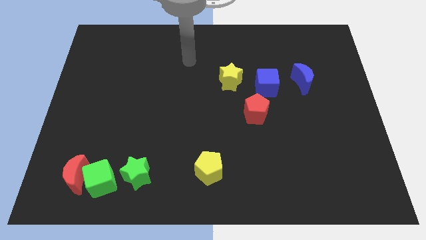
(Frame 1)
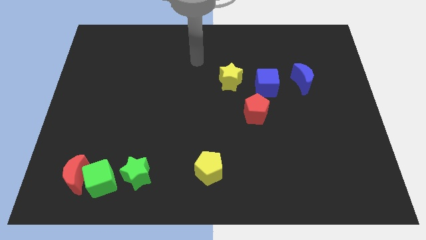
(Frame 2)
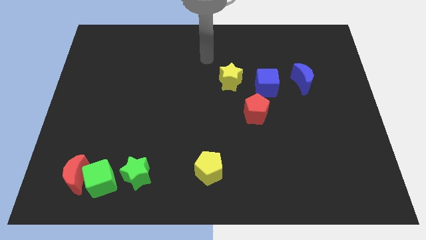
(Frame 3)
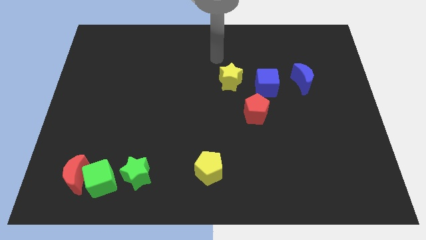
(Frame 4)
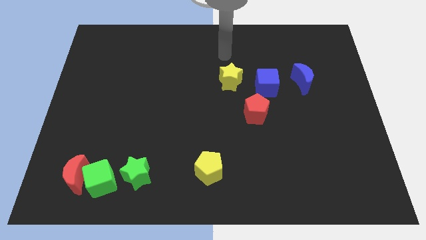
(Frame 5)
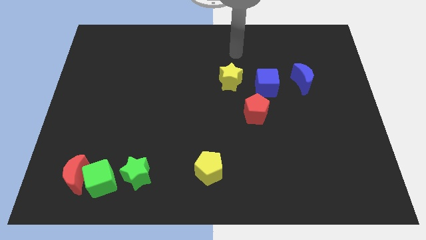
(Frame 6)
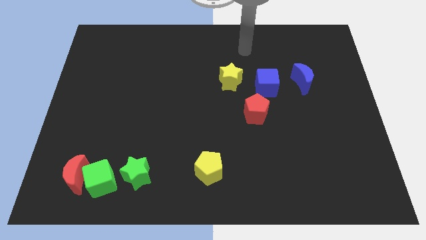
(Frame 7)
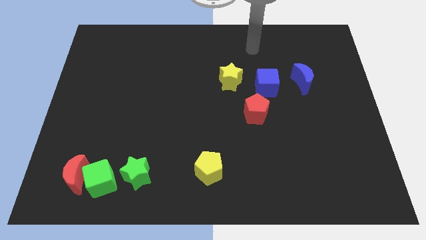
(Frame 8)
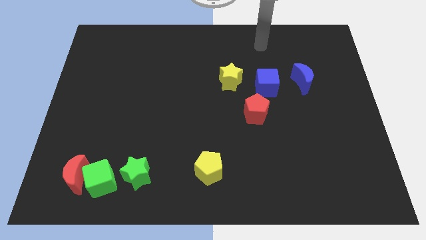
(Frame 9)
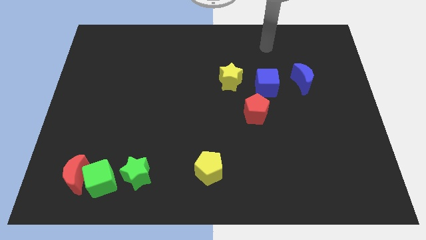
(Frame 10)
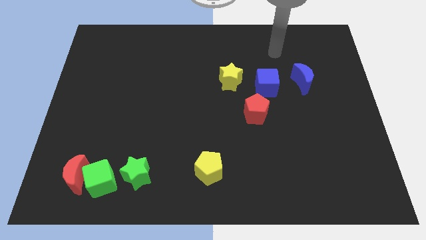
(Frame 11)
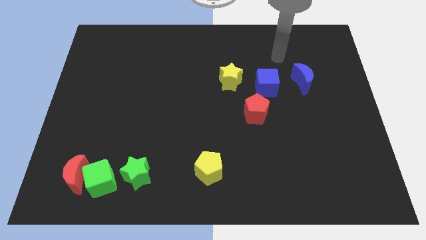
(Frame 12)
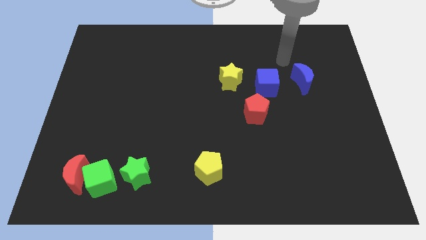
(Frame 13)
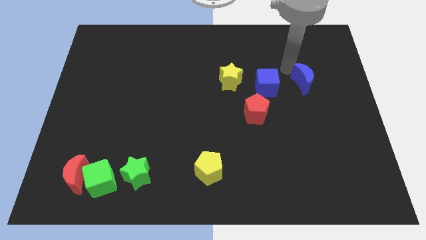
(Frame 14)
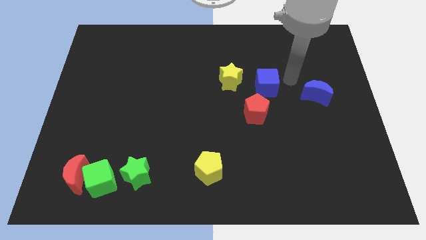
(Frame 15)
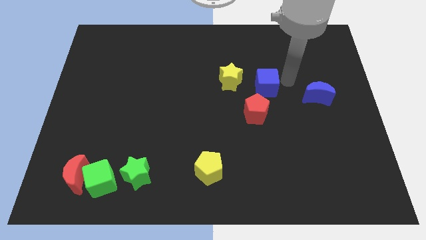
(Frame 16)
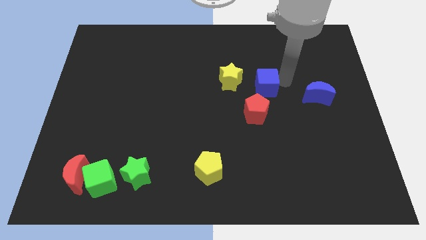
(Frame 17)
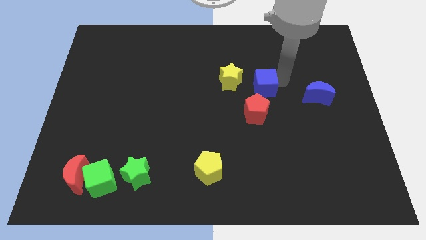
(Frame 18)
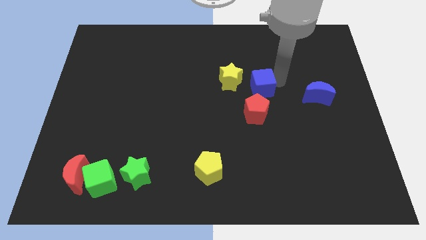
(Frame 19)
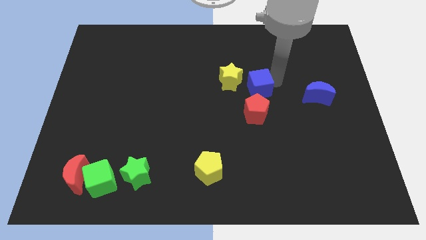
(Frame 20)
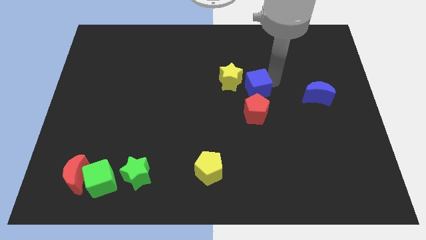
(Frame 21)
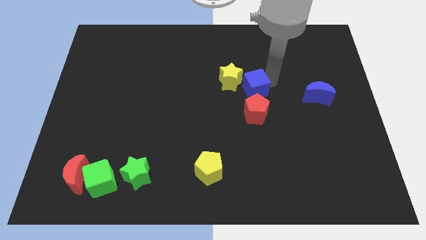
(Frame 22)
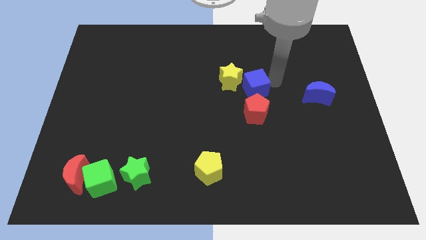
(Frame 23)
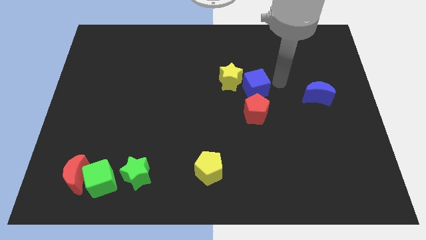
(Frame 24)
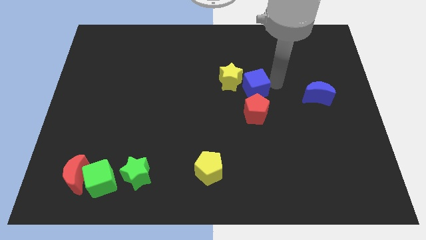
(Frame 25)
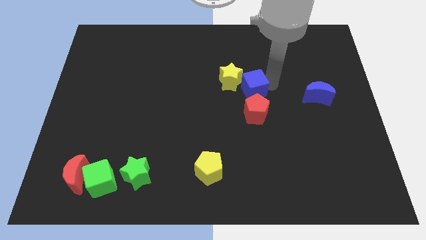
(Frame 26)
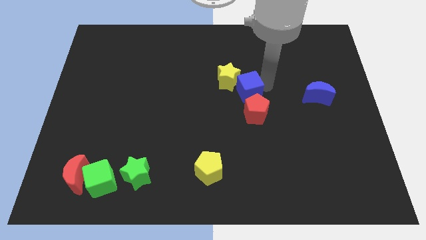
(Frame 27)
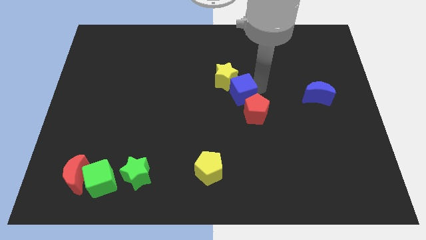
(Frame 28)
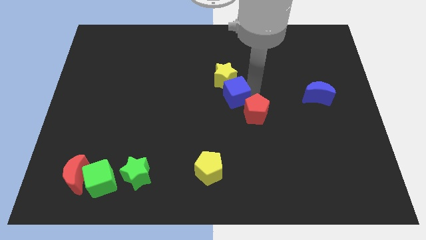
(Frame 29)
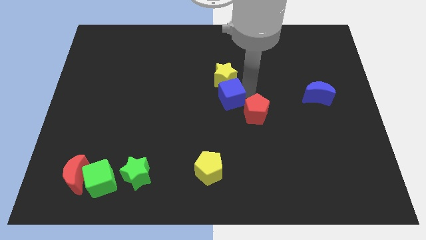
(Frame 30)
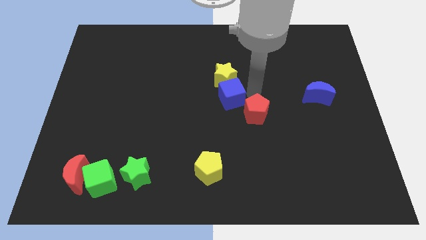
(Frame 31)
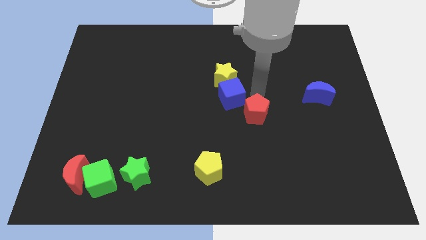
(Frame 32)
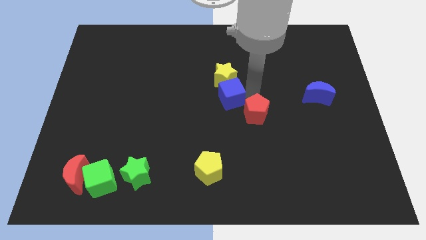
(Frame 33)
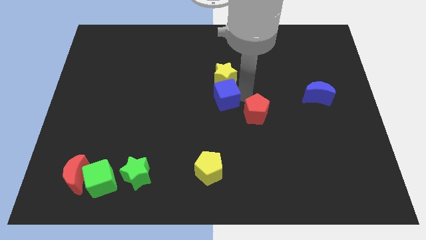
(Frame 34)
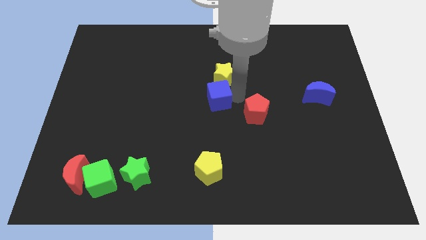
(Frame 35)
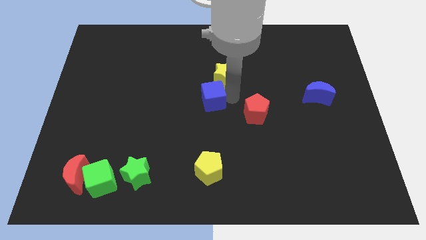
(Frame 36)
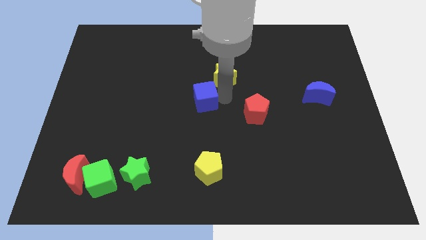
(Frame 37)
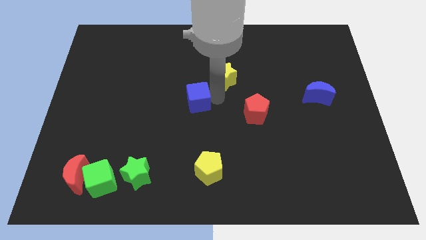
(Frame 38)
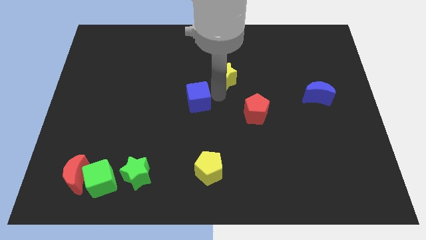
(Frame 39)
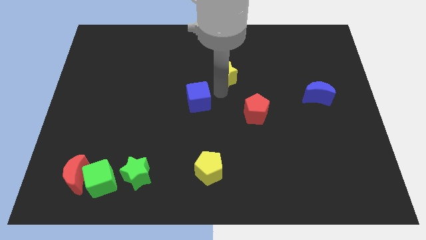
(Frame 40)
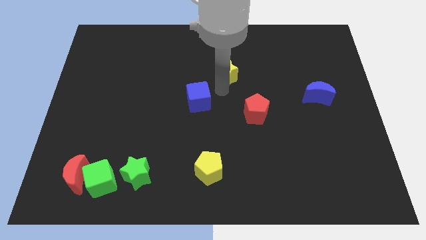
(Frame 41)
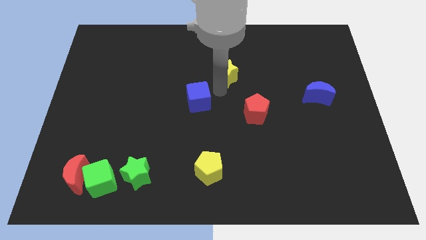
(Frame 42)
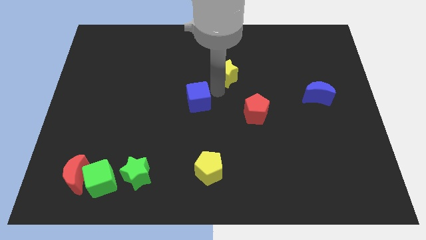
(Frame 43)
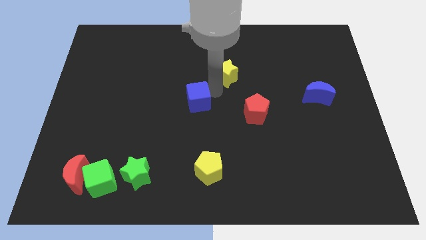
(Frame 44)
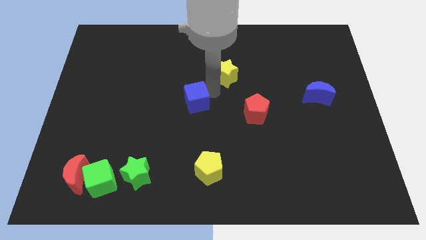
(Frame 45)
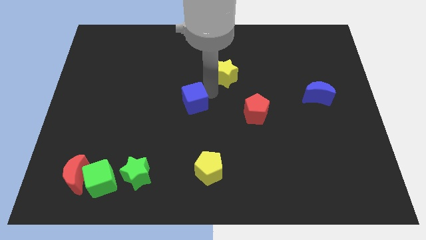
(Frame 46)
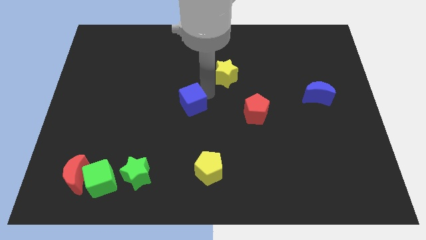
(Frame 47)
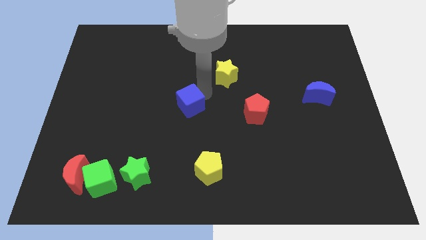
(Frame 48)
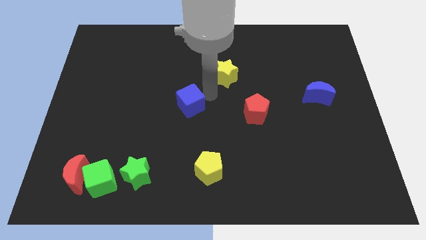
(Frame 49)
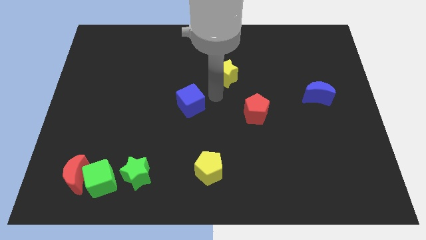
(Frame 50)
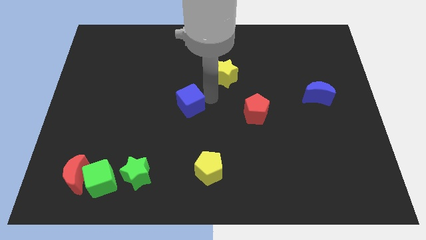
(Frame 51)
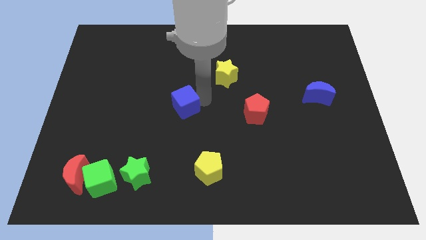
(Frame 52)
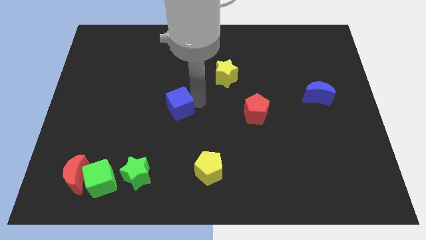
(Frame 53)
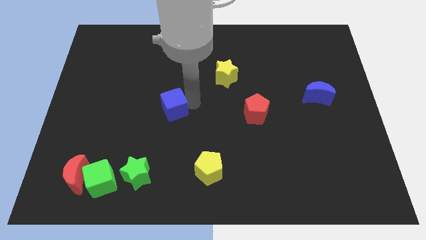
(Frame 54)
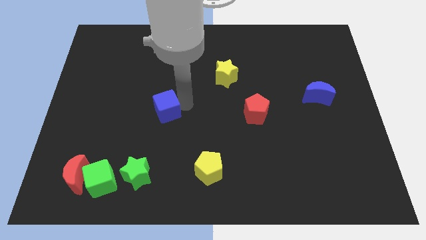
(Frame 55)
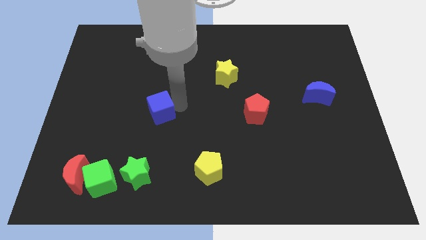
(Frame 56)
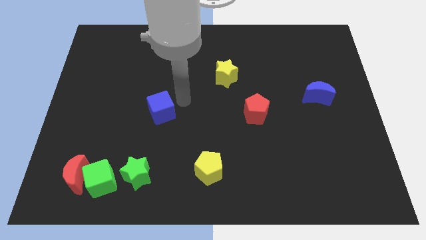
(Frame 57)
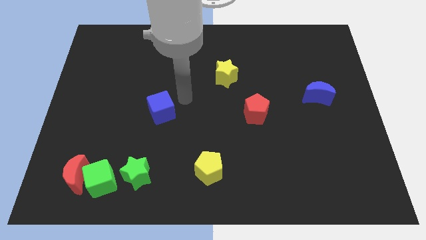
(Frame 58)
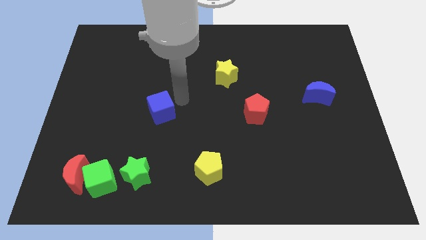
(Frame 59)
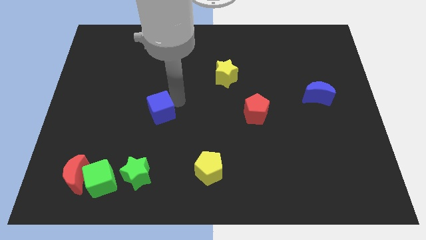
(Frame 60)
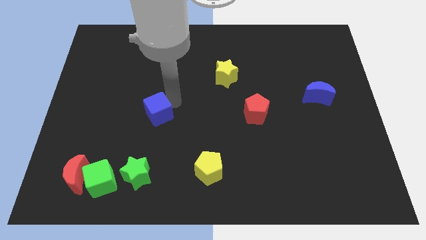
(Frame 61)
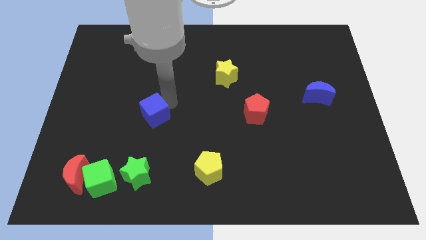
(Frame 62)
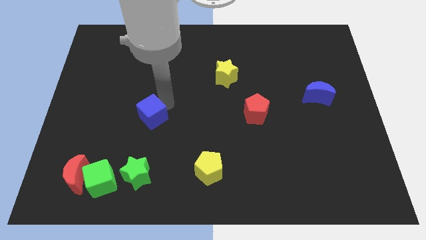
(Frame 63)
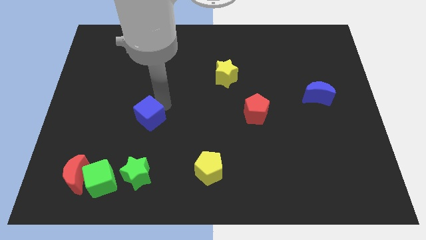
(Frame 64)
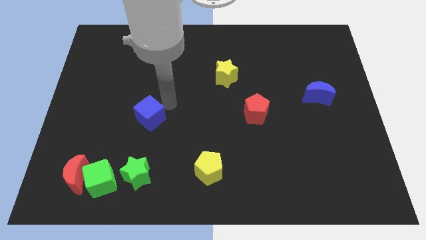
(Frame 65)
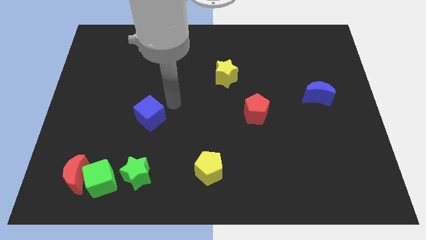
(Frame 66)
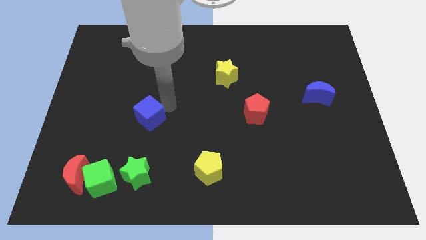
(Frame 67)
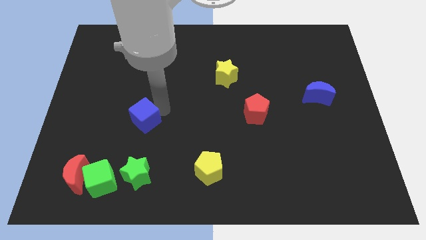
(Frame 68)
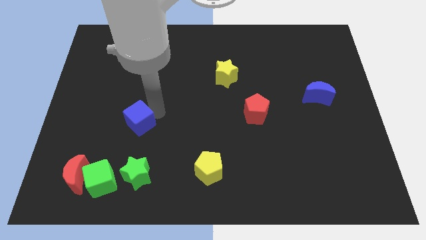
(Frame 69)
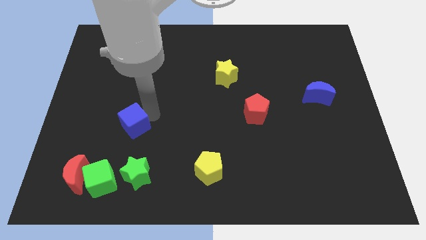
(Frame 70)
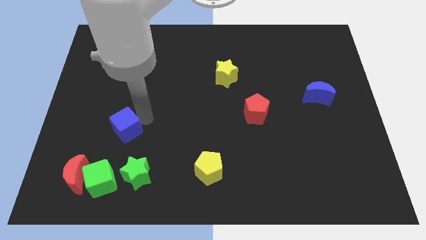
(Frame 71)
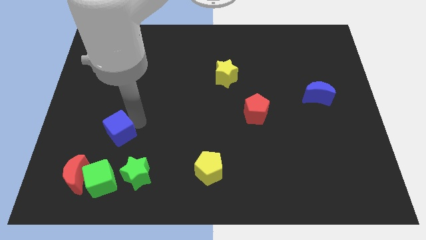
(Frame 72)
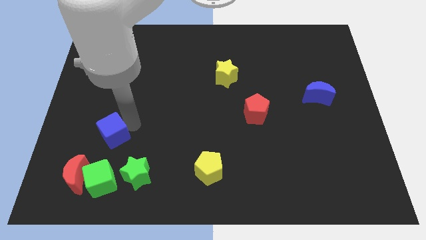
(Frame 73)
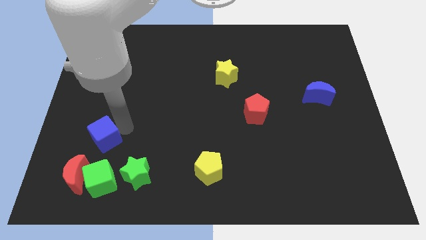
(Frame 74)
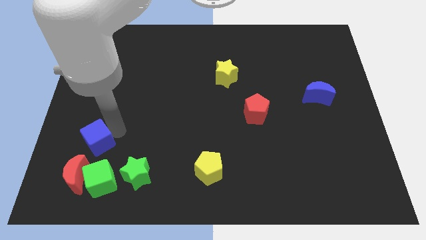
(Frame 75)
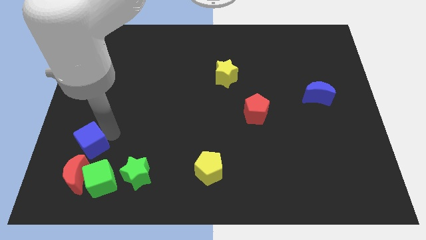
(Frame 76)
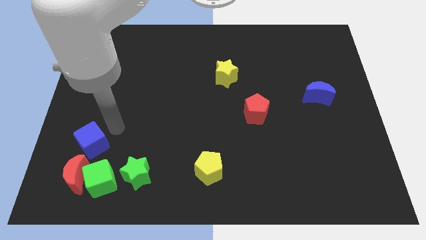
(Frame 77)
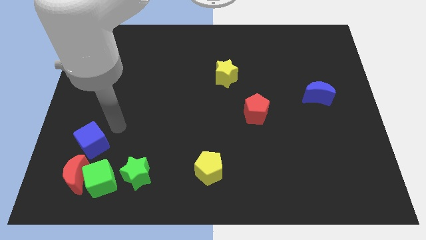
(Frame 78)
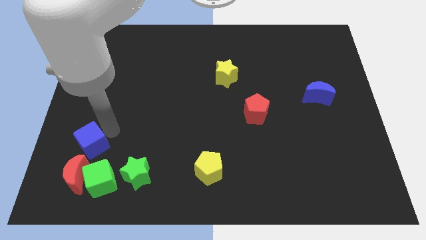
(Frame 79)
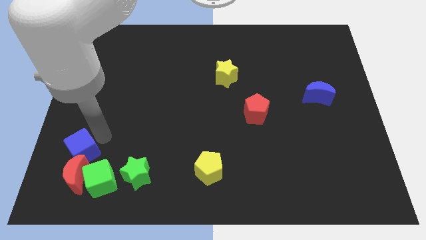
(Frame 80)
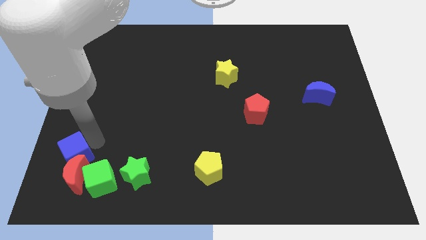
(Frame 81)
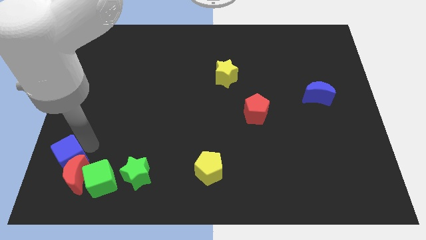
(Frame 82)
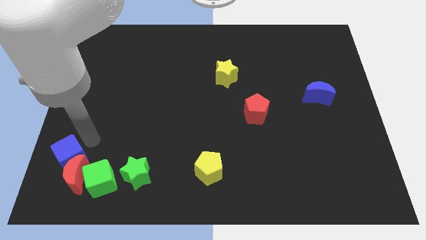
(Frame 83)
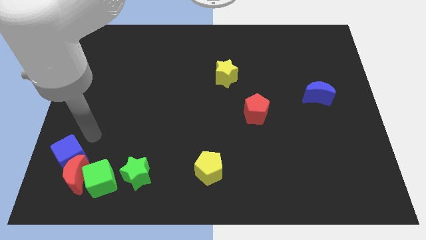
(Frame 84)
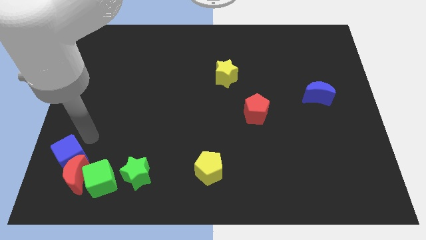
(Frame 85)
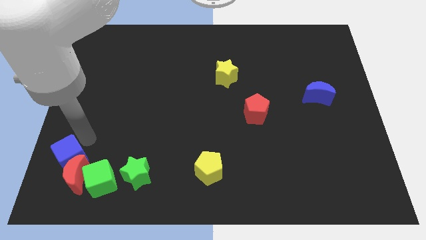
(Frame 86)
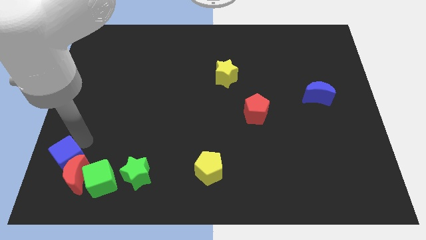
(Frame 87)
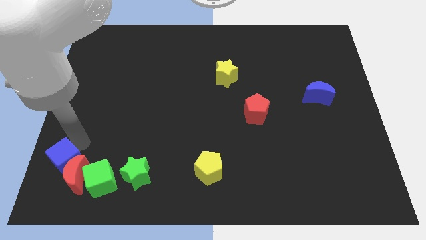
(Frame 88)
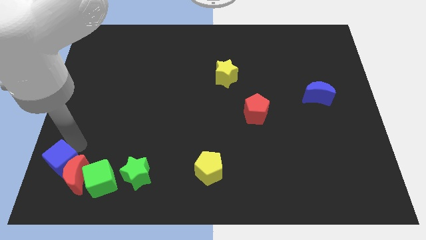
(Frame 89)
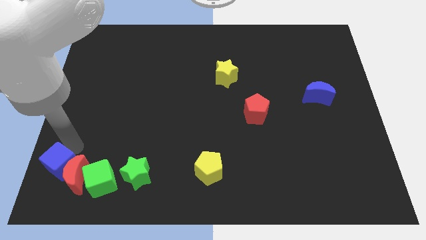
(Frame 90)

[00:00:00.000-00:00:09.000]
move the blue cube to the bottom left of the board
